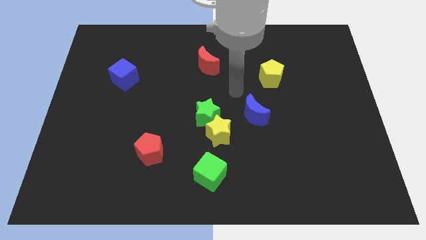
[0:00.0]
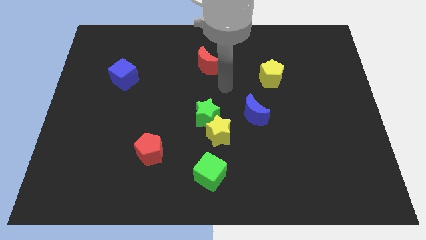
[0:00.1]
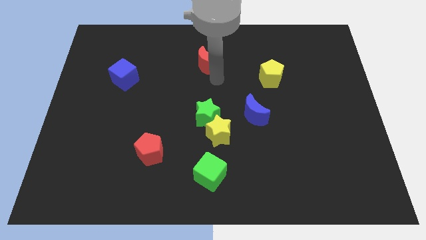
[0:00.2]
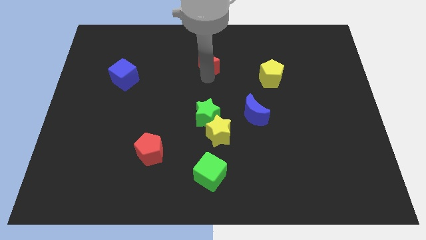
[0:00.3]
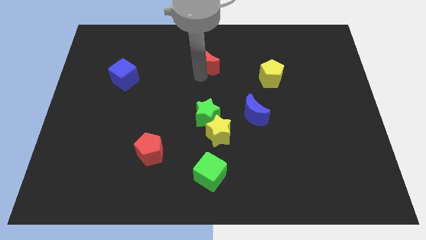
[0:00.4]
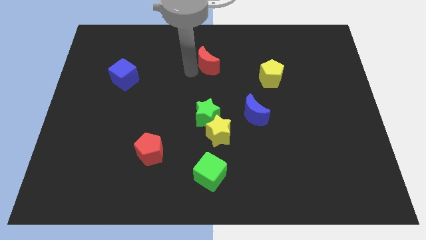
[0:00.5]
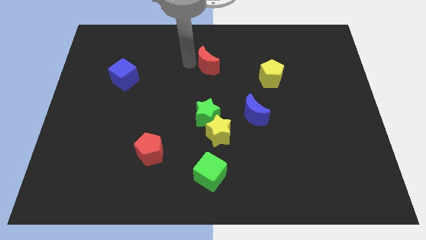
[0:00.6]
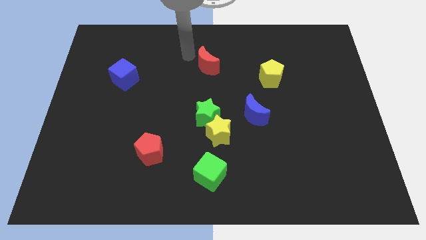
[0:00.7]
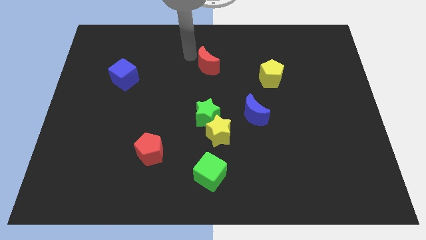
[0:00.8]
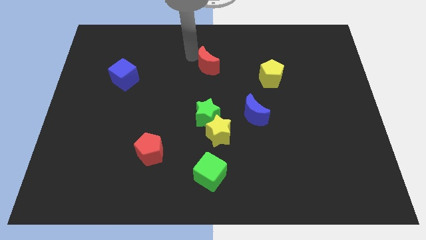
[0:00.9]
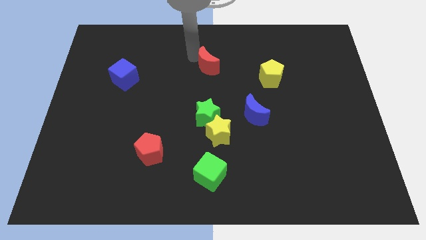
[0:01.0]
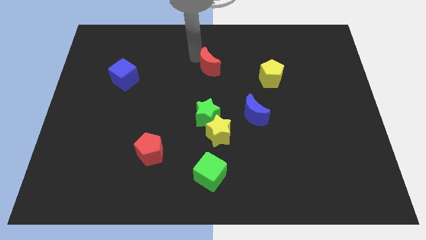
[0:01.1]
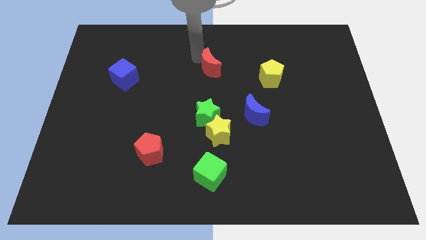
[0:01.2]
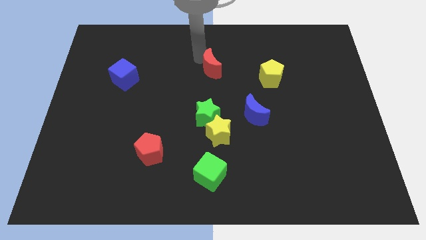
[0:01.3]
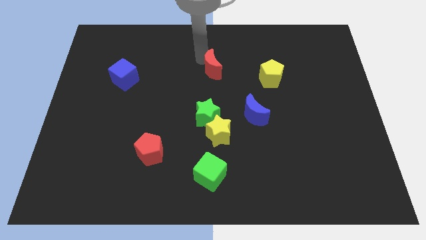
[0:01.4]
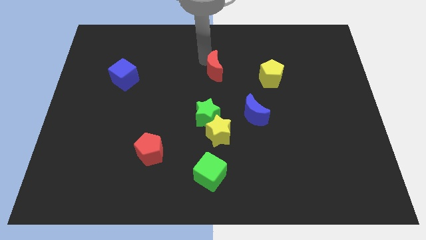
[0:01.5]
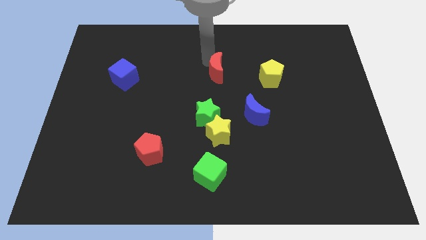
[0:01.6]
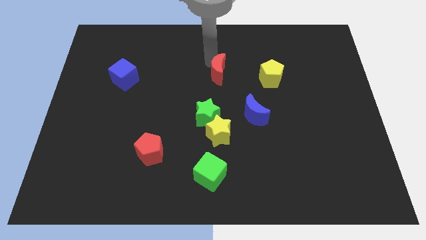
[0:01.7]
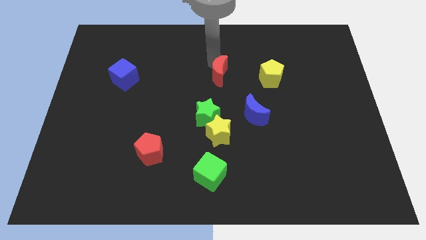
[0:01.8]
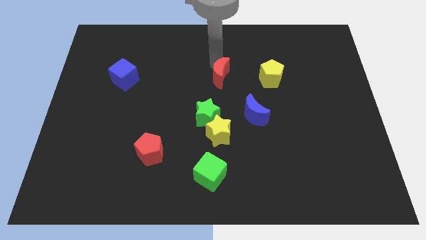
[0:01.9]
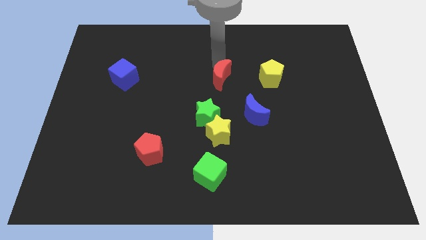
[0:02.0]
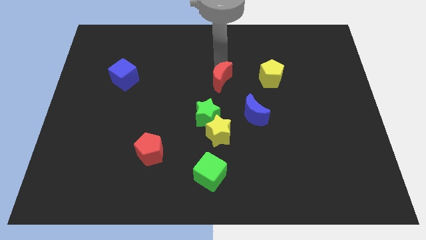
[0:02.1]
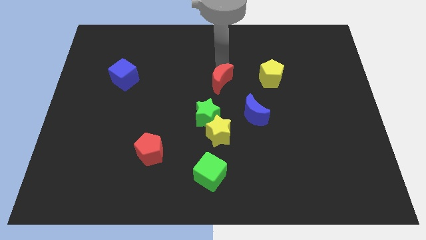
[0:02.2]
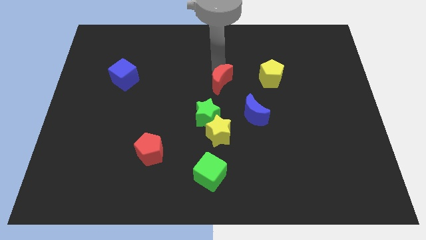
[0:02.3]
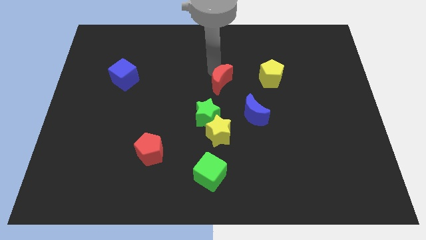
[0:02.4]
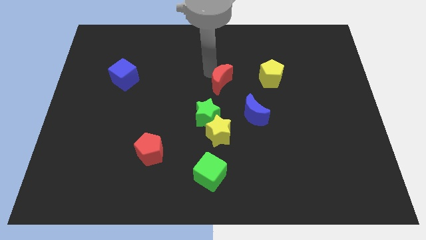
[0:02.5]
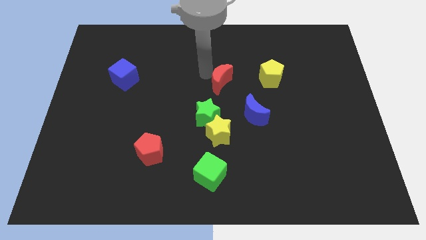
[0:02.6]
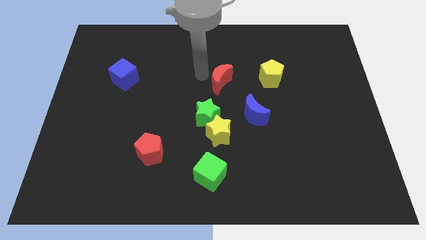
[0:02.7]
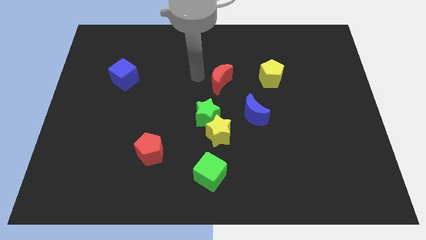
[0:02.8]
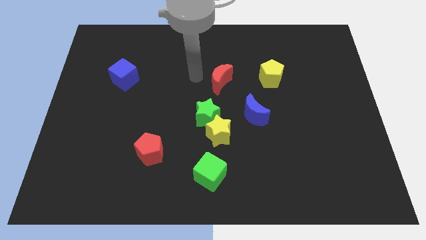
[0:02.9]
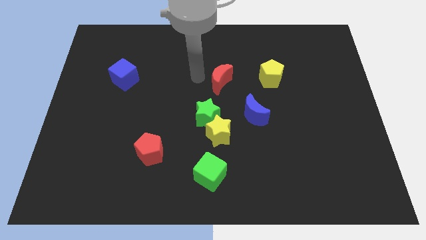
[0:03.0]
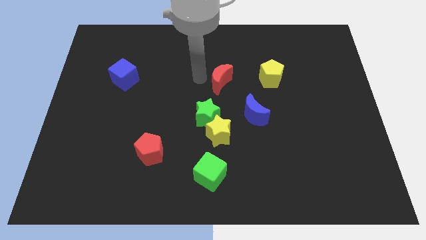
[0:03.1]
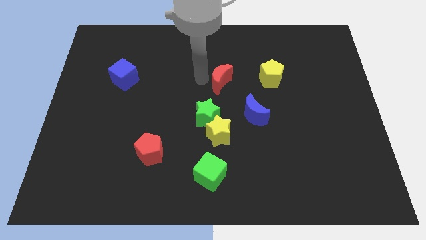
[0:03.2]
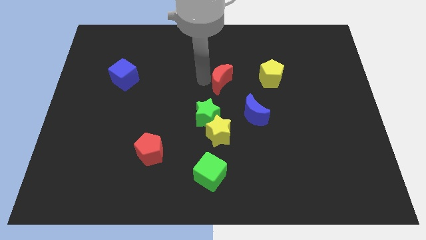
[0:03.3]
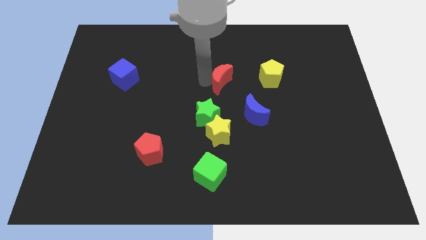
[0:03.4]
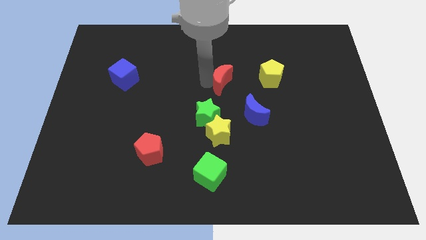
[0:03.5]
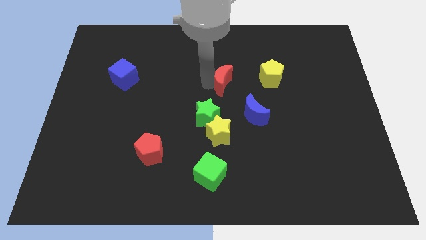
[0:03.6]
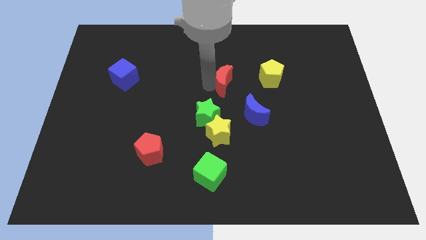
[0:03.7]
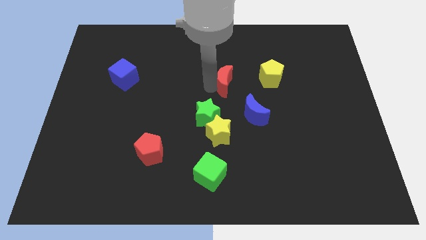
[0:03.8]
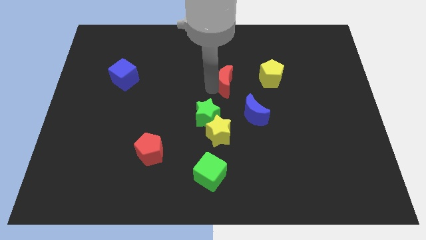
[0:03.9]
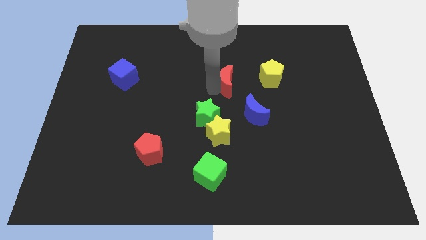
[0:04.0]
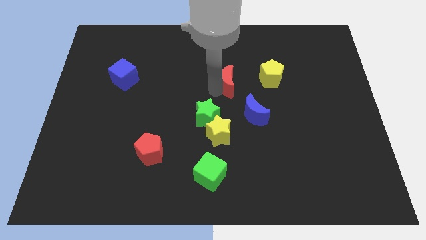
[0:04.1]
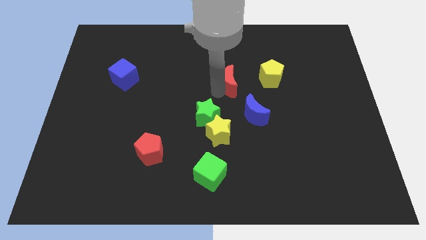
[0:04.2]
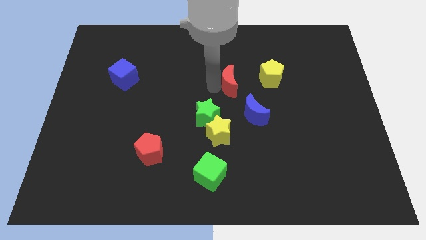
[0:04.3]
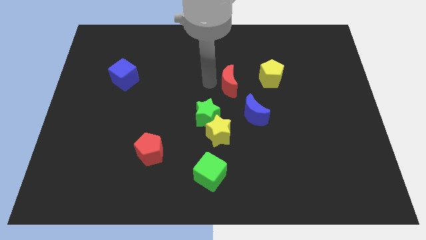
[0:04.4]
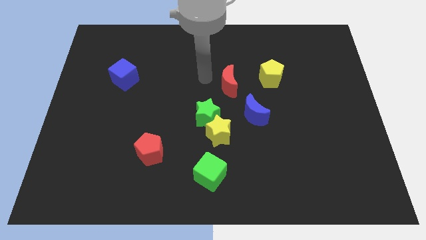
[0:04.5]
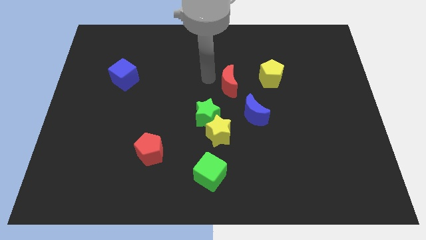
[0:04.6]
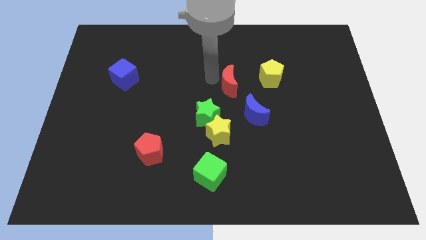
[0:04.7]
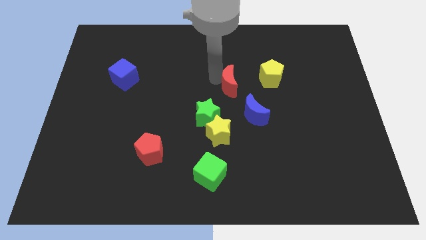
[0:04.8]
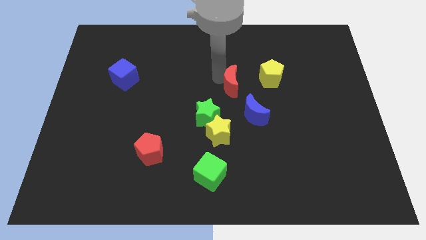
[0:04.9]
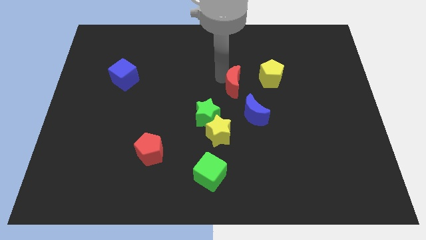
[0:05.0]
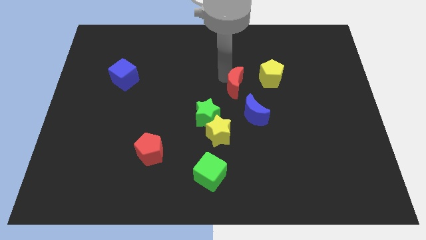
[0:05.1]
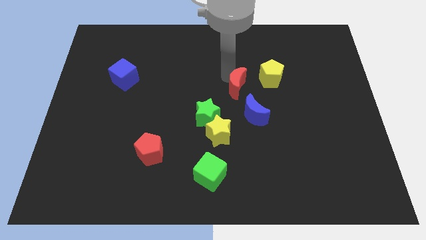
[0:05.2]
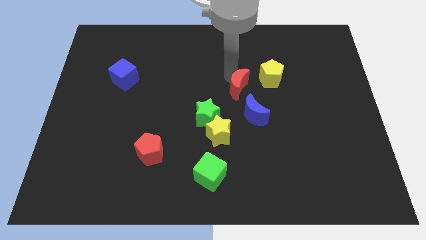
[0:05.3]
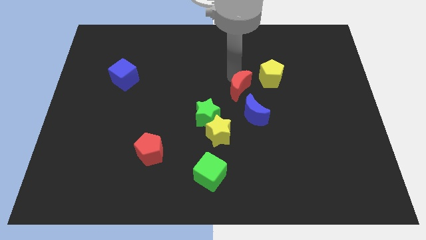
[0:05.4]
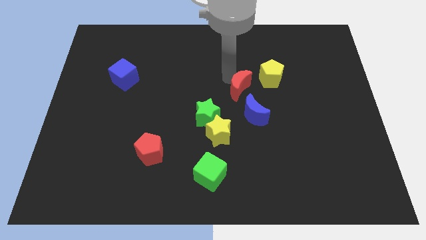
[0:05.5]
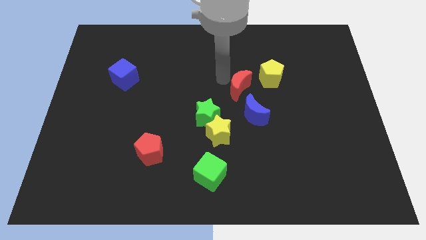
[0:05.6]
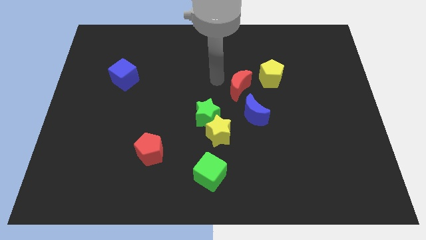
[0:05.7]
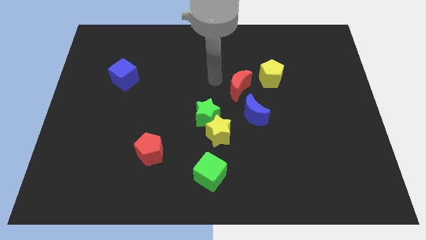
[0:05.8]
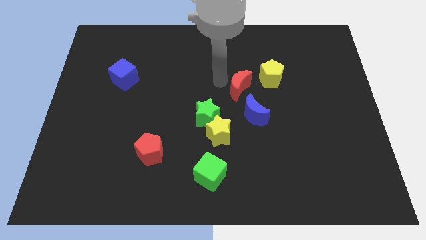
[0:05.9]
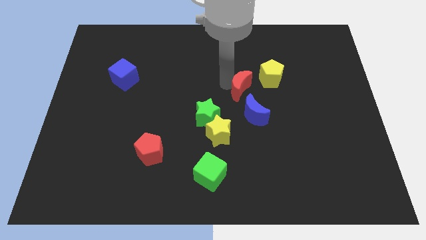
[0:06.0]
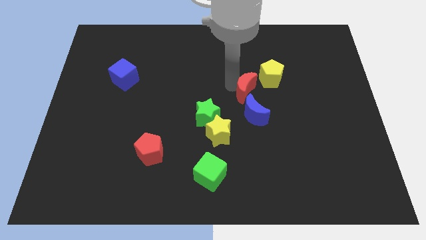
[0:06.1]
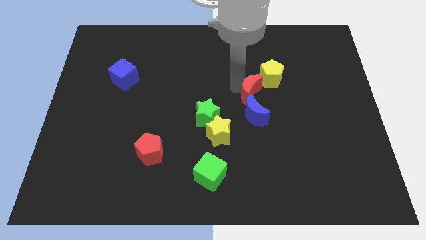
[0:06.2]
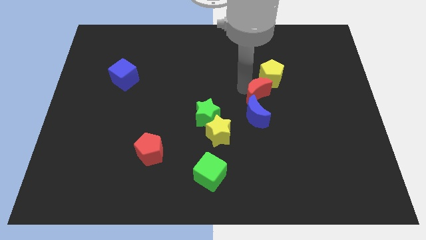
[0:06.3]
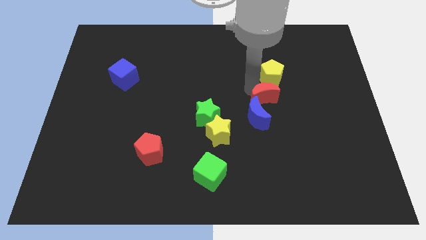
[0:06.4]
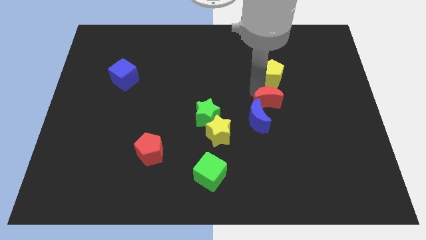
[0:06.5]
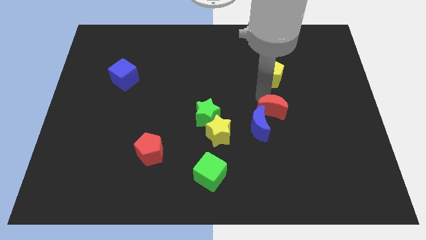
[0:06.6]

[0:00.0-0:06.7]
slide the red moon down and then right

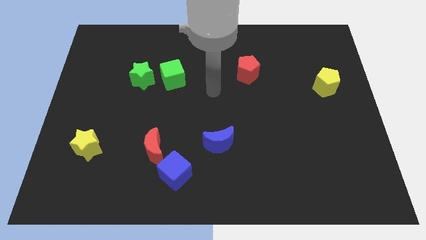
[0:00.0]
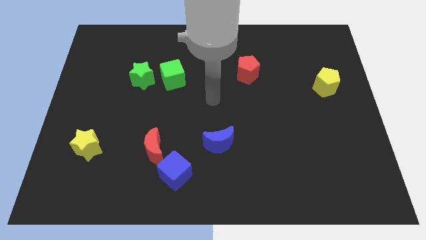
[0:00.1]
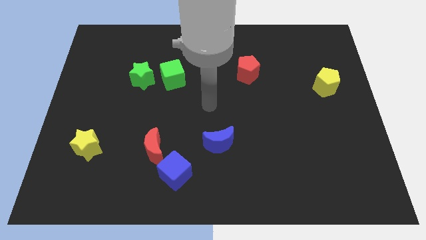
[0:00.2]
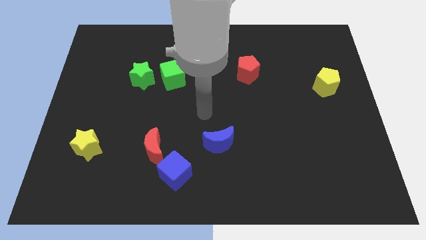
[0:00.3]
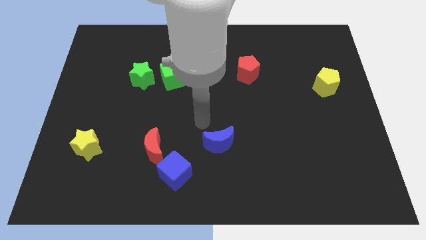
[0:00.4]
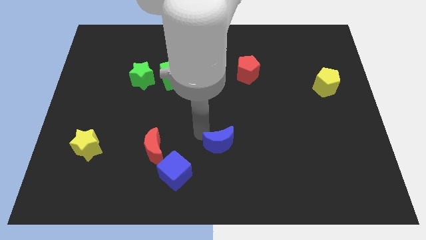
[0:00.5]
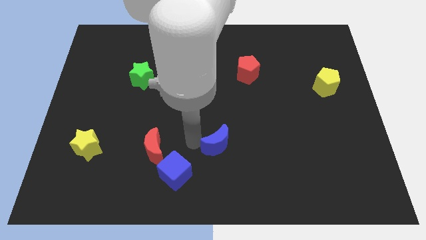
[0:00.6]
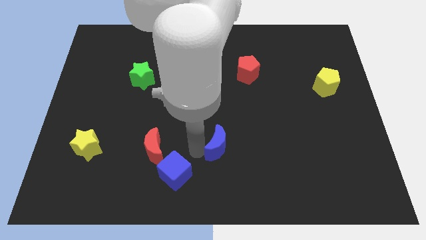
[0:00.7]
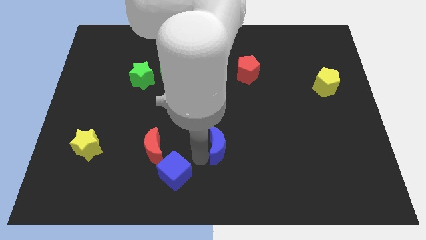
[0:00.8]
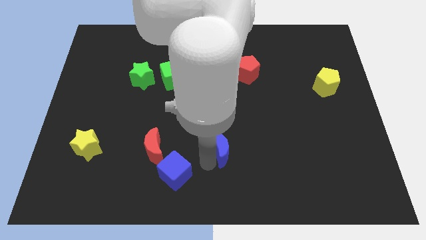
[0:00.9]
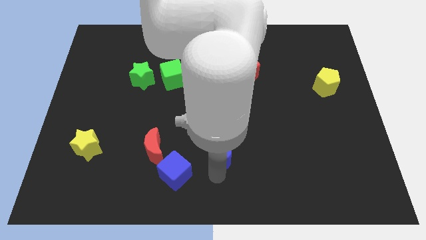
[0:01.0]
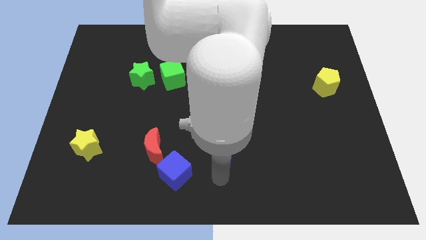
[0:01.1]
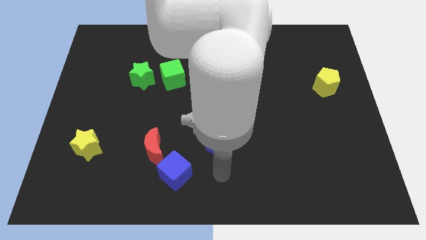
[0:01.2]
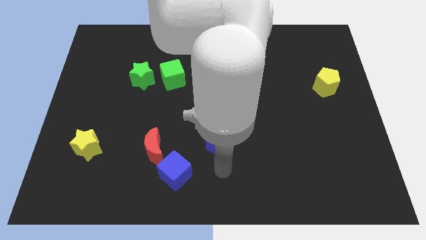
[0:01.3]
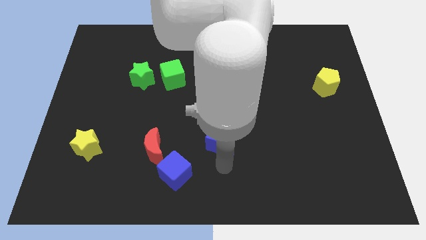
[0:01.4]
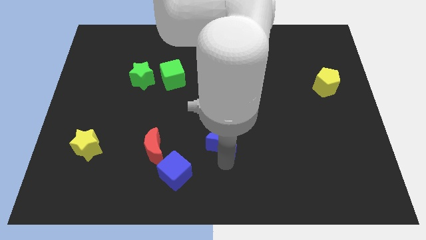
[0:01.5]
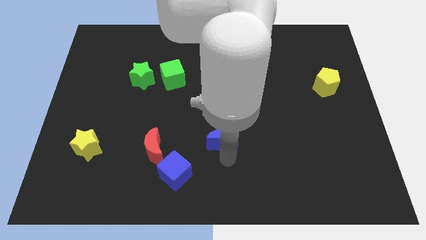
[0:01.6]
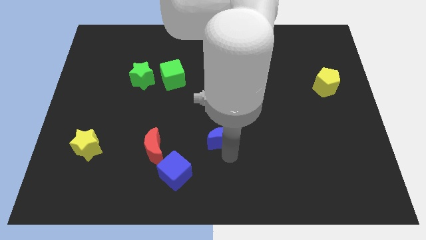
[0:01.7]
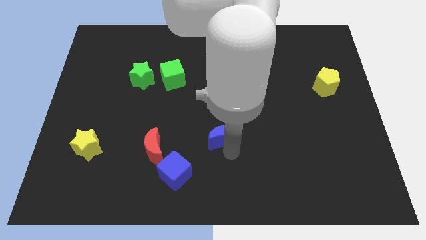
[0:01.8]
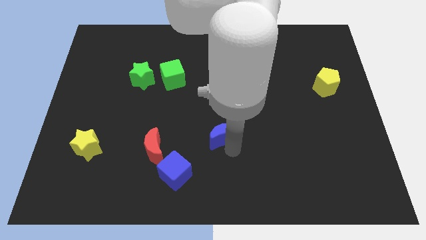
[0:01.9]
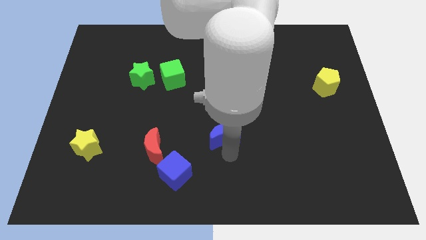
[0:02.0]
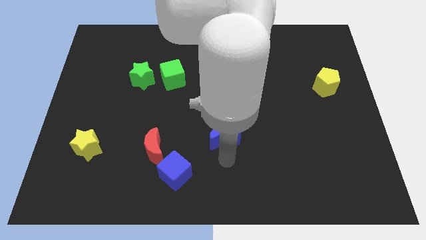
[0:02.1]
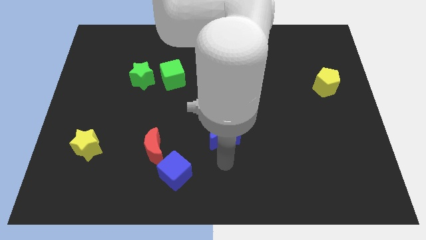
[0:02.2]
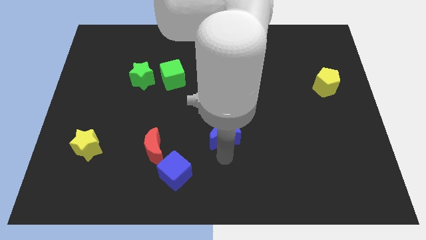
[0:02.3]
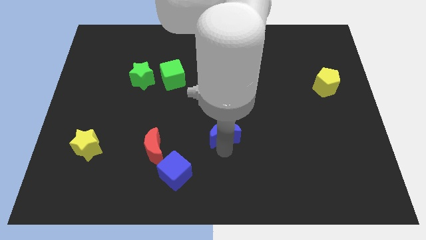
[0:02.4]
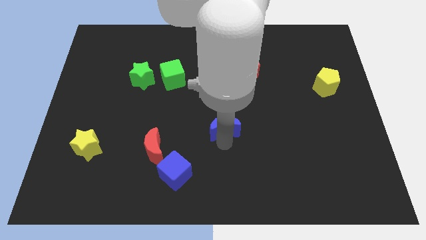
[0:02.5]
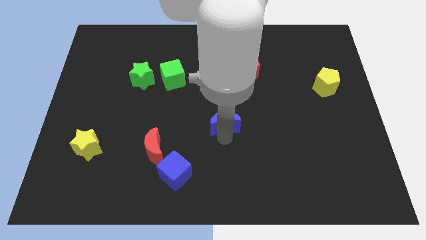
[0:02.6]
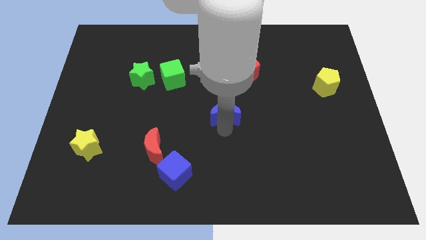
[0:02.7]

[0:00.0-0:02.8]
move the blue moon upwards a little
